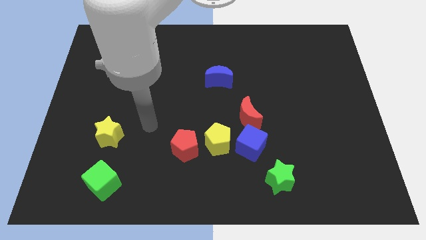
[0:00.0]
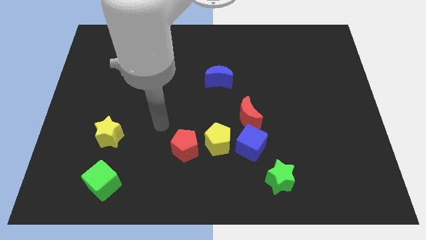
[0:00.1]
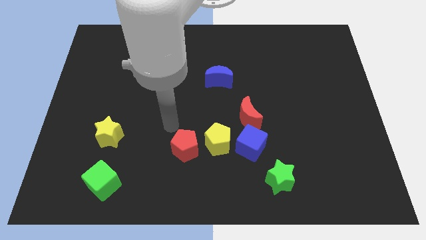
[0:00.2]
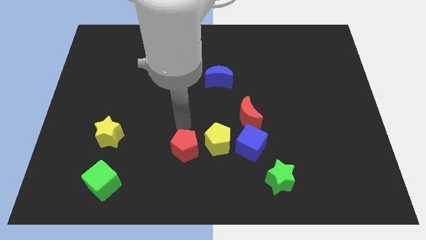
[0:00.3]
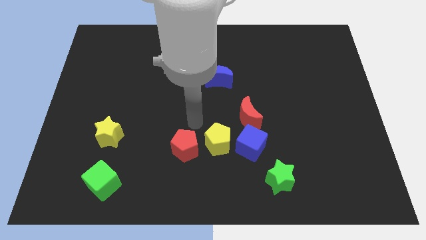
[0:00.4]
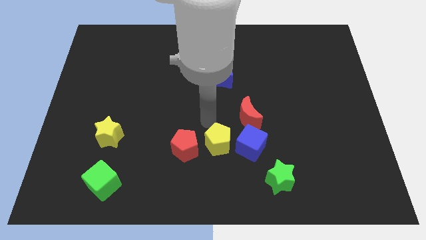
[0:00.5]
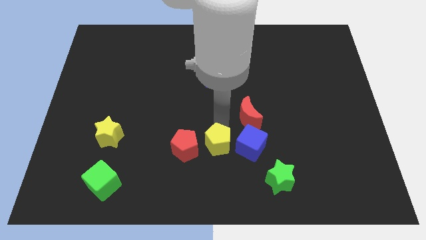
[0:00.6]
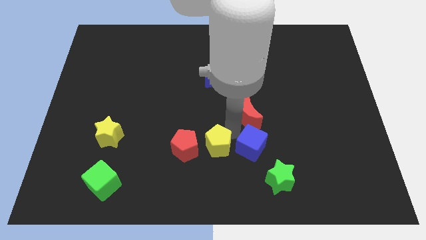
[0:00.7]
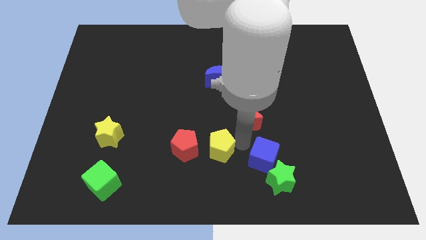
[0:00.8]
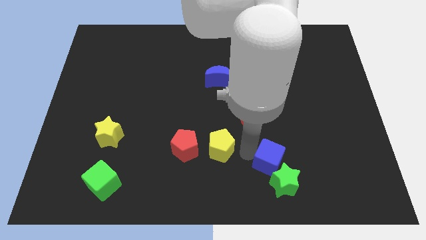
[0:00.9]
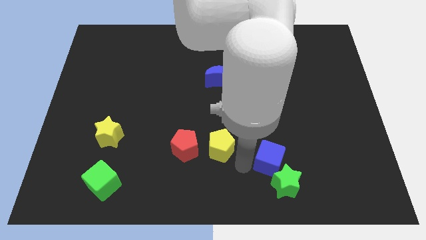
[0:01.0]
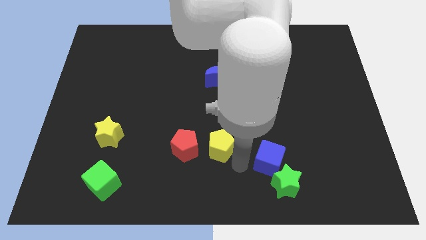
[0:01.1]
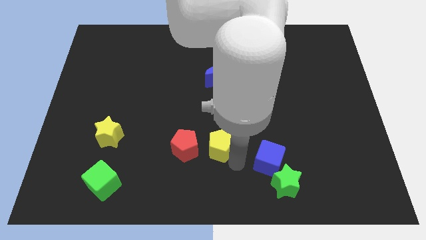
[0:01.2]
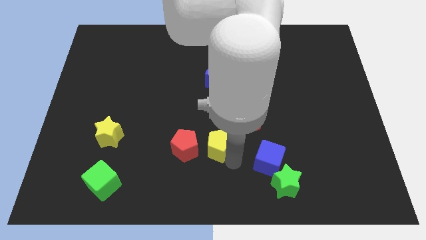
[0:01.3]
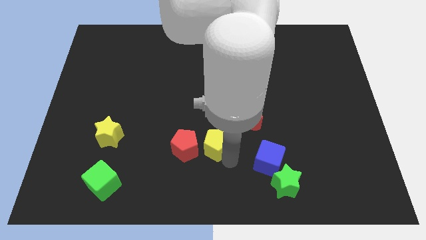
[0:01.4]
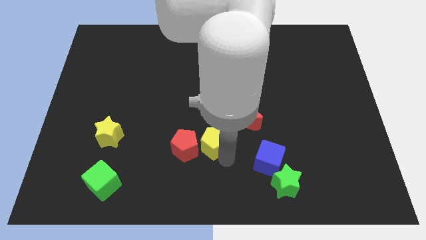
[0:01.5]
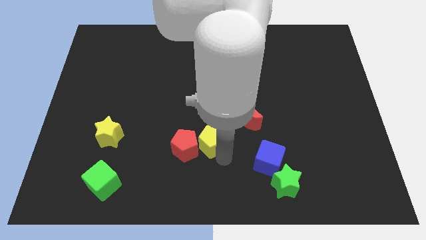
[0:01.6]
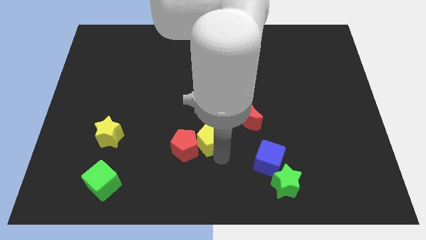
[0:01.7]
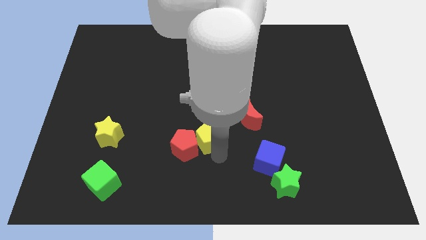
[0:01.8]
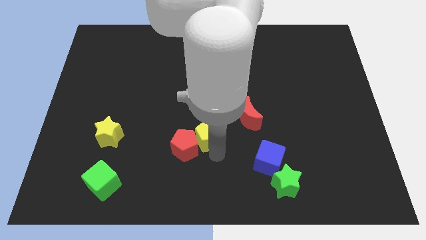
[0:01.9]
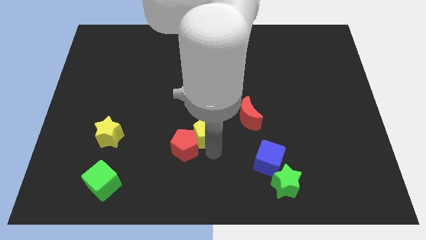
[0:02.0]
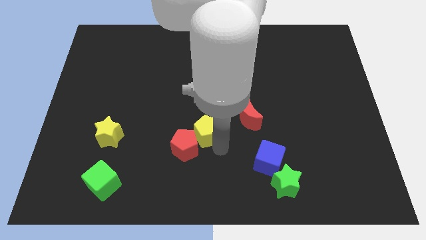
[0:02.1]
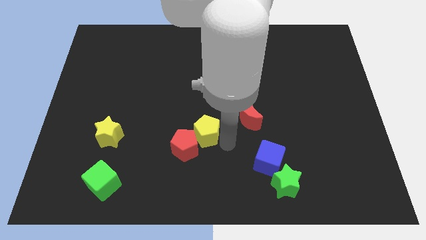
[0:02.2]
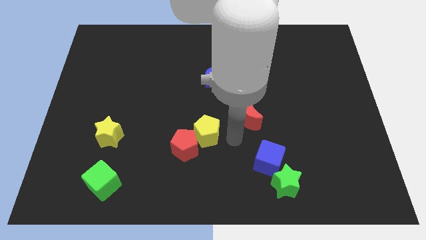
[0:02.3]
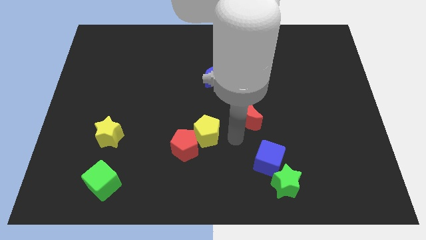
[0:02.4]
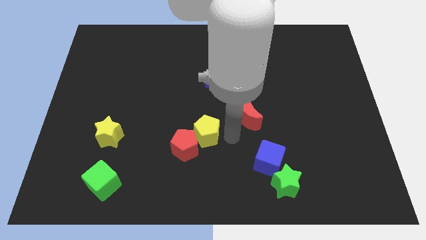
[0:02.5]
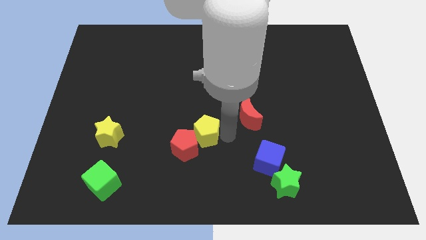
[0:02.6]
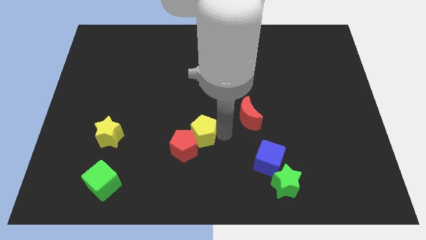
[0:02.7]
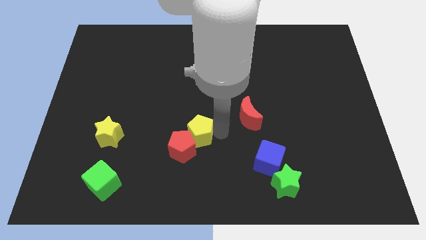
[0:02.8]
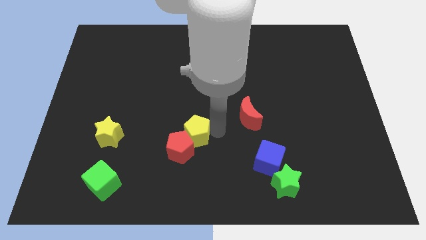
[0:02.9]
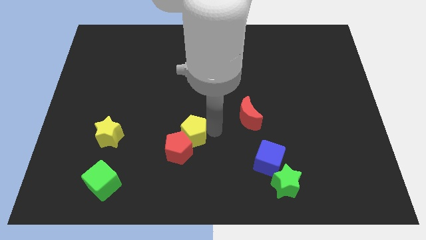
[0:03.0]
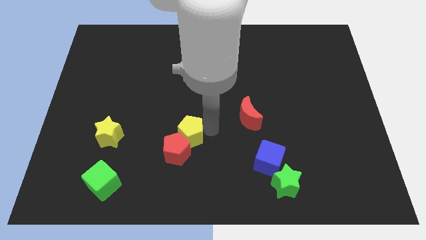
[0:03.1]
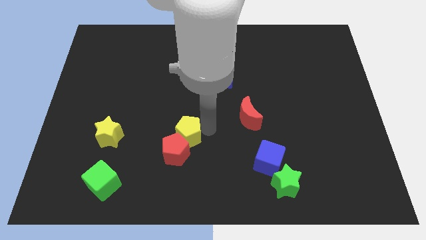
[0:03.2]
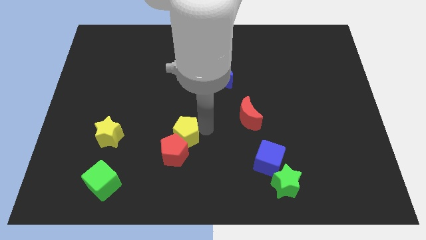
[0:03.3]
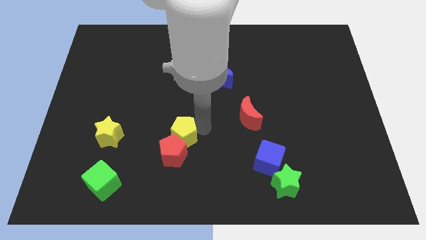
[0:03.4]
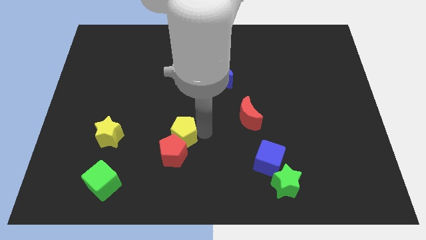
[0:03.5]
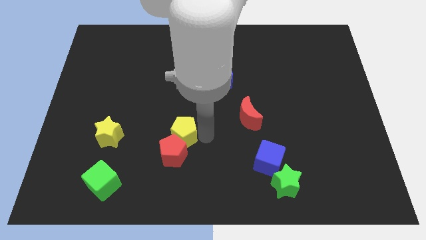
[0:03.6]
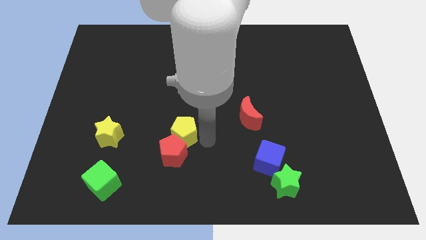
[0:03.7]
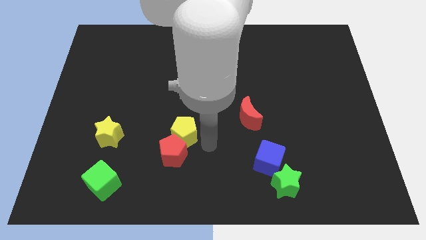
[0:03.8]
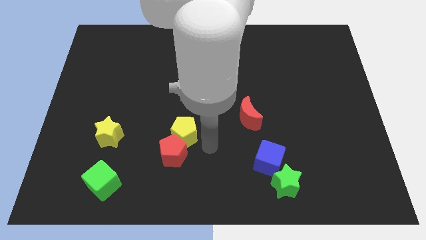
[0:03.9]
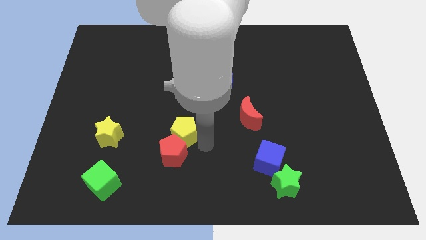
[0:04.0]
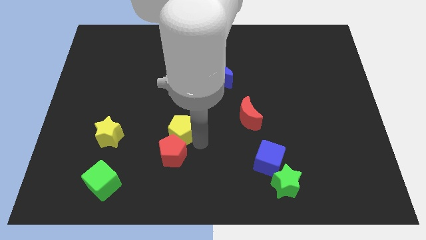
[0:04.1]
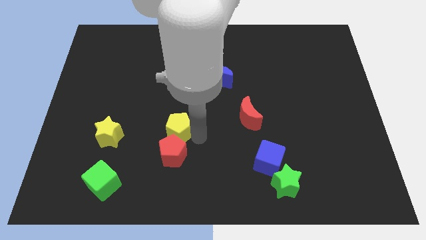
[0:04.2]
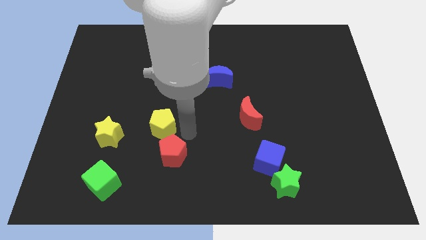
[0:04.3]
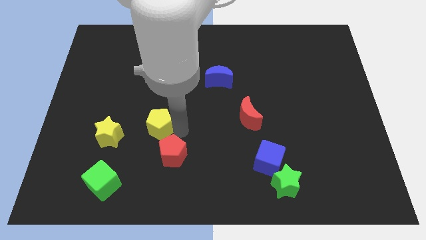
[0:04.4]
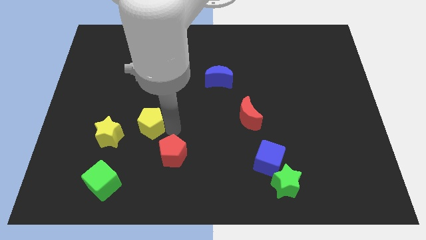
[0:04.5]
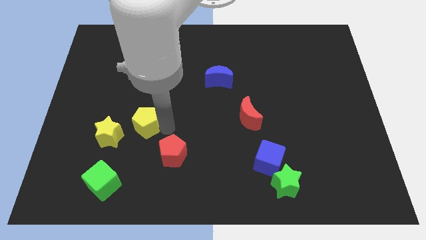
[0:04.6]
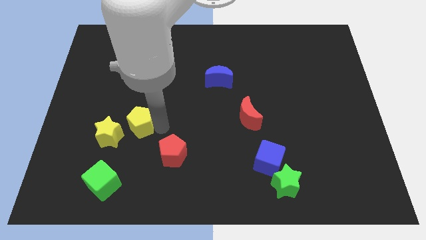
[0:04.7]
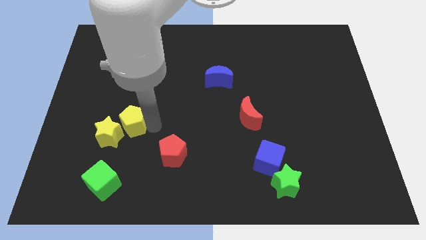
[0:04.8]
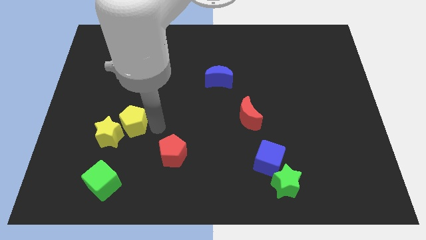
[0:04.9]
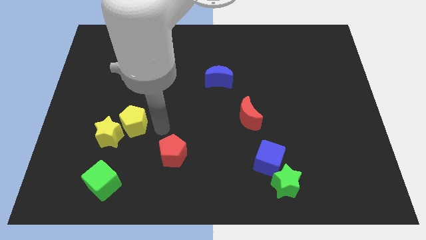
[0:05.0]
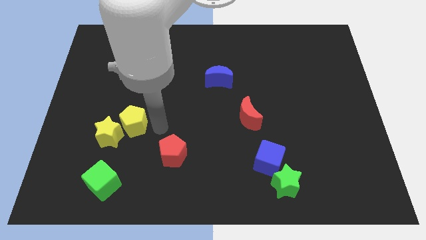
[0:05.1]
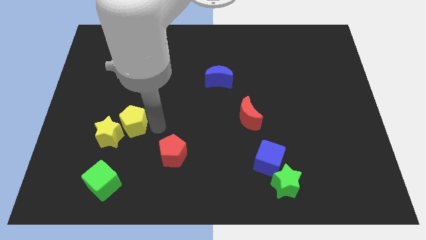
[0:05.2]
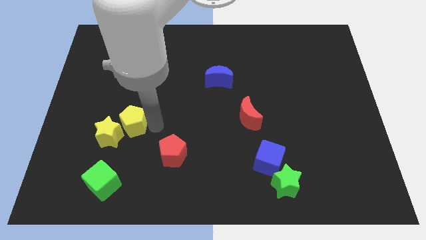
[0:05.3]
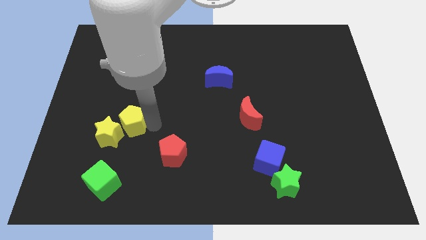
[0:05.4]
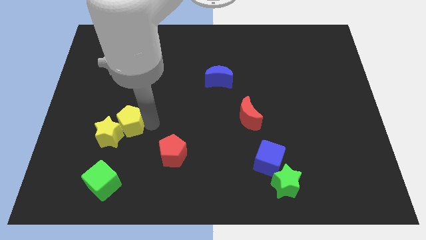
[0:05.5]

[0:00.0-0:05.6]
put the yellow pentagon above the green cube

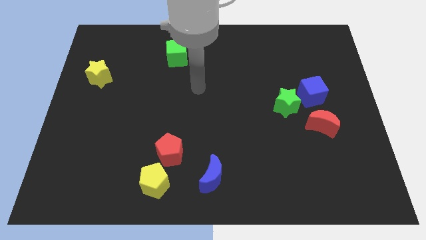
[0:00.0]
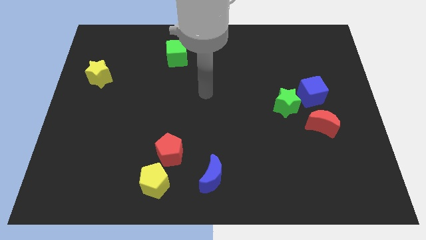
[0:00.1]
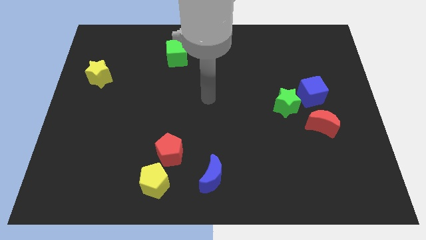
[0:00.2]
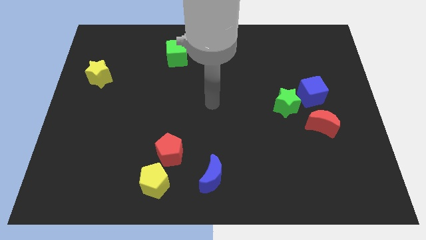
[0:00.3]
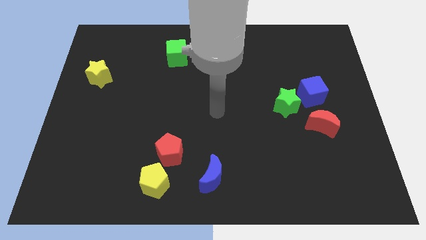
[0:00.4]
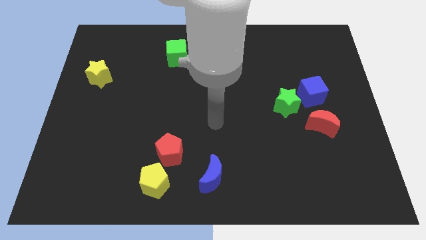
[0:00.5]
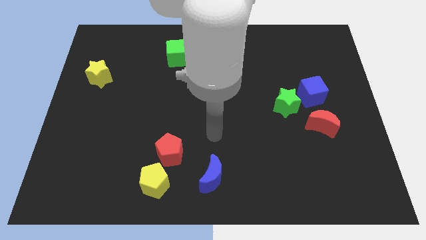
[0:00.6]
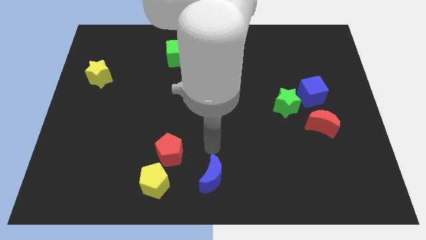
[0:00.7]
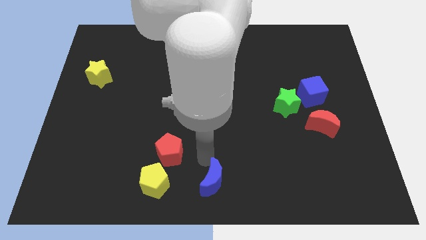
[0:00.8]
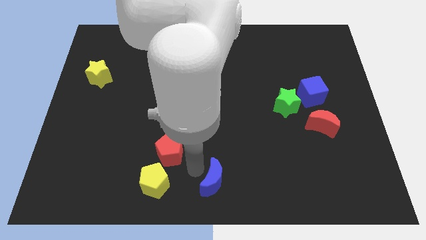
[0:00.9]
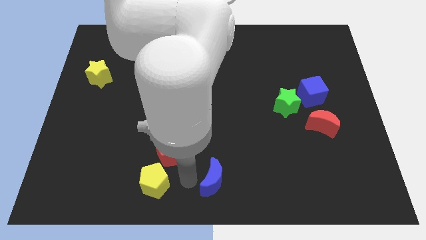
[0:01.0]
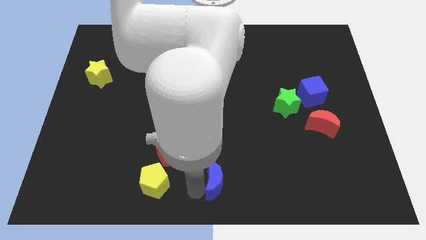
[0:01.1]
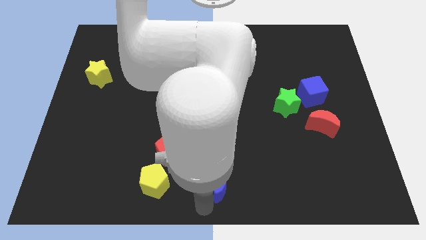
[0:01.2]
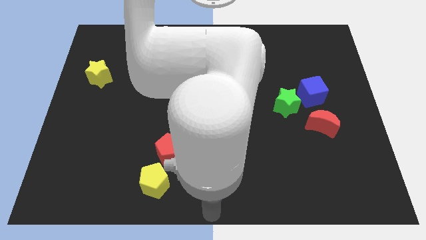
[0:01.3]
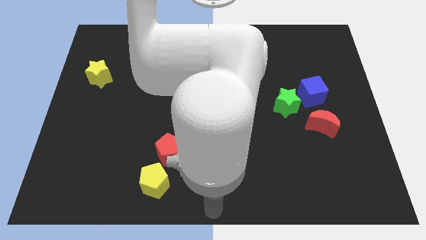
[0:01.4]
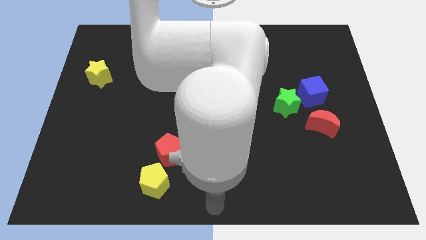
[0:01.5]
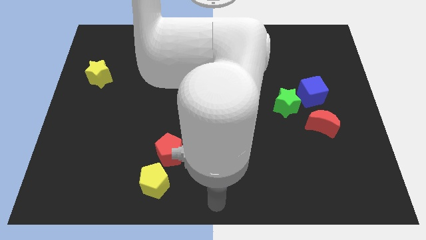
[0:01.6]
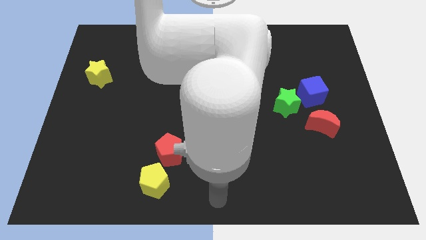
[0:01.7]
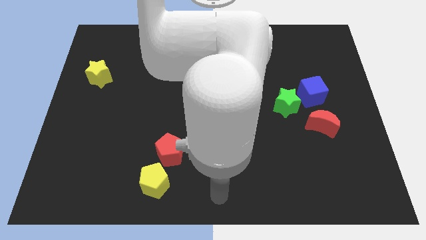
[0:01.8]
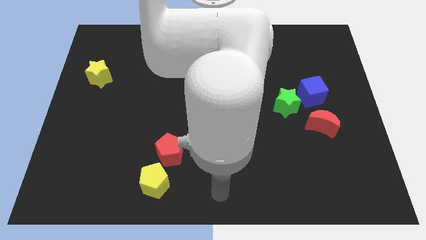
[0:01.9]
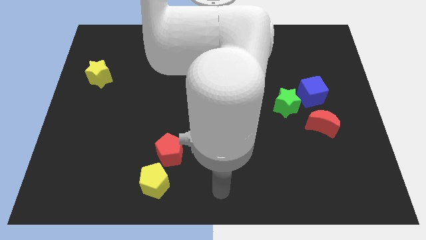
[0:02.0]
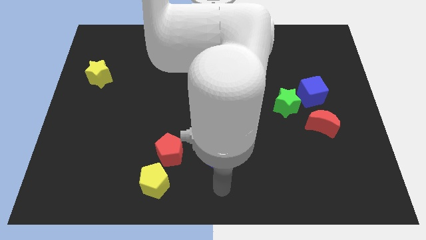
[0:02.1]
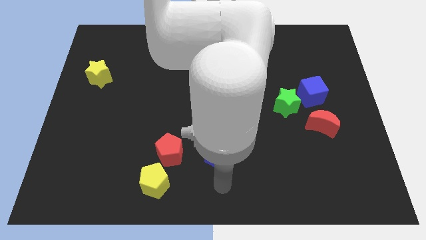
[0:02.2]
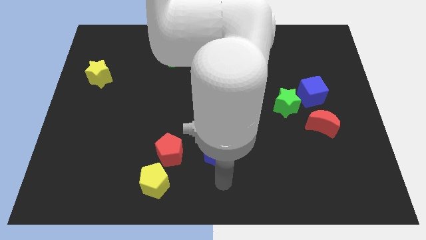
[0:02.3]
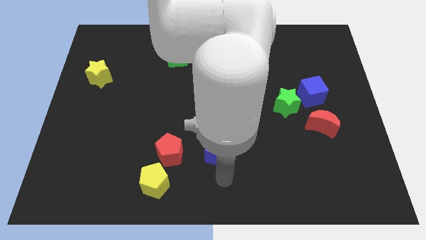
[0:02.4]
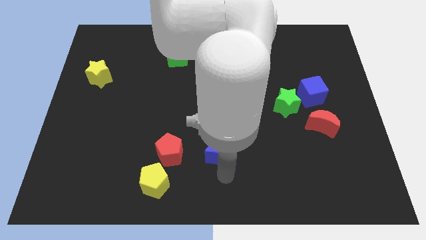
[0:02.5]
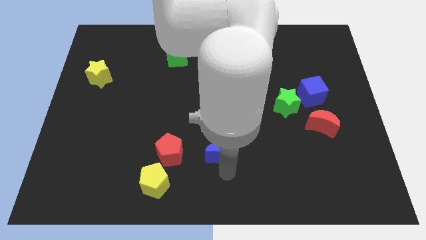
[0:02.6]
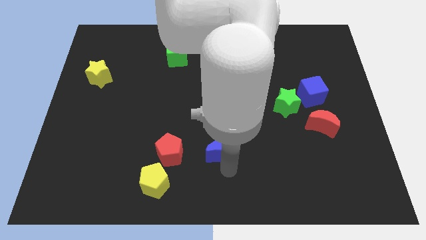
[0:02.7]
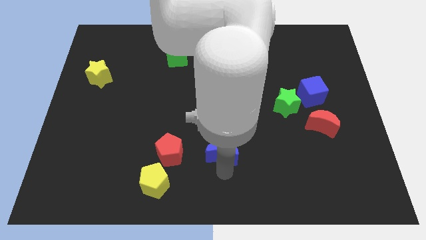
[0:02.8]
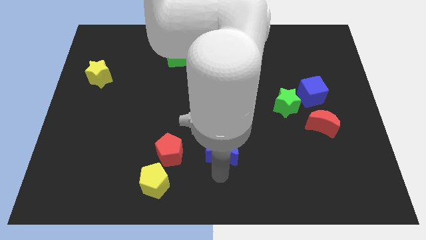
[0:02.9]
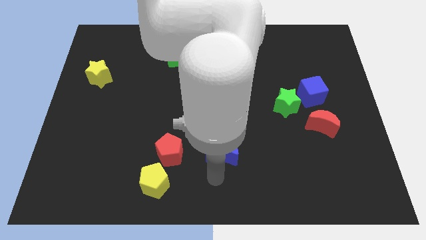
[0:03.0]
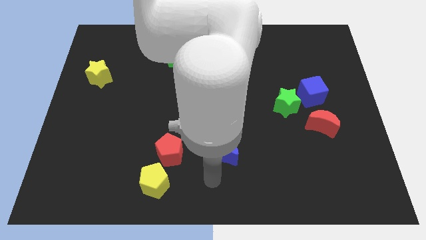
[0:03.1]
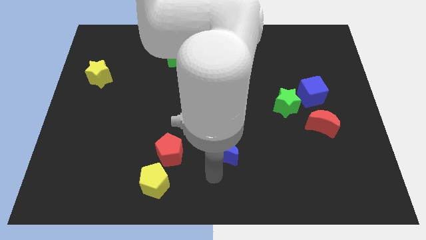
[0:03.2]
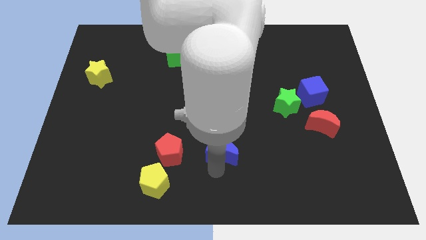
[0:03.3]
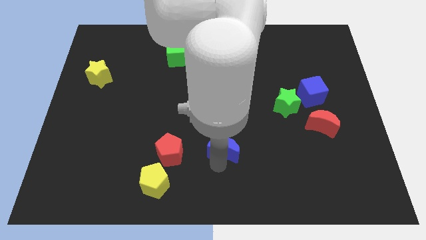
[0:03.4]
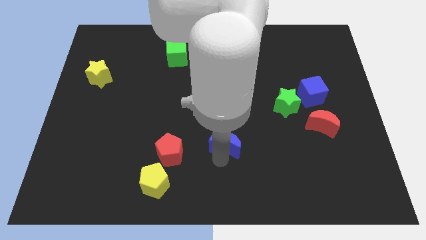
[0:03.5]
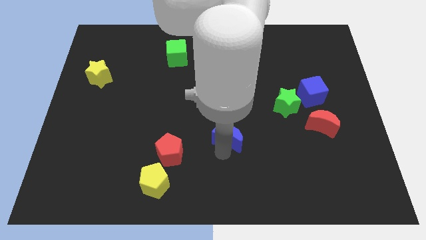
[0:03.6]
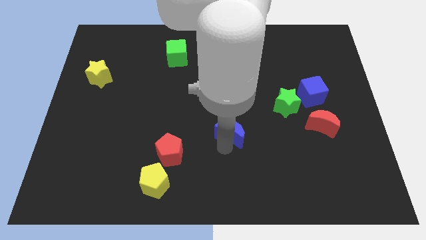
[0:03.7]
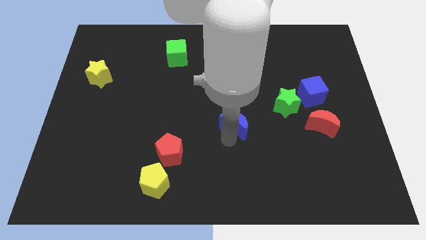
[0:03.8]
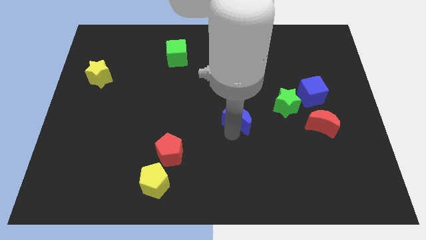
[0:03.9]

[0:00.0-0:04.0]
push the blue moon left of the green star
